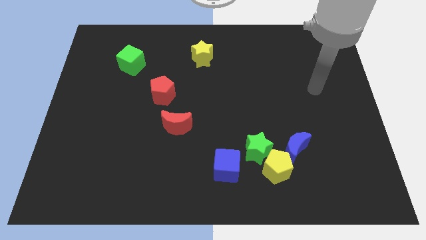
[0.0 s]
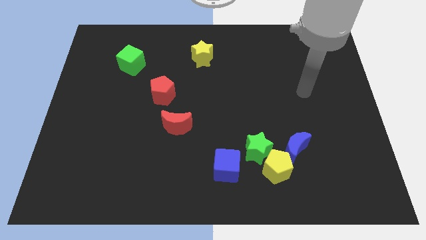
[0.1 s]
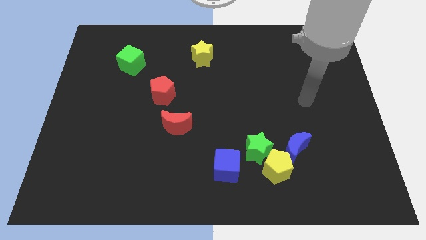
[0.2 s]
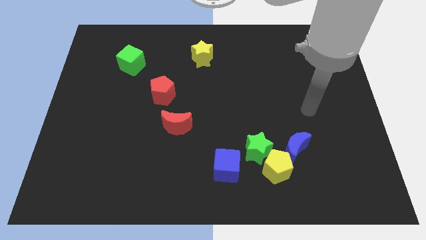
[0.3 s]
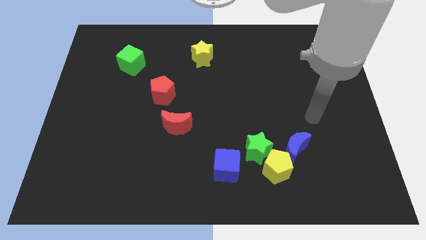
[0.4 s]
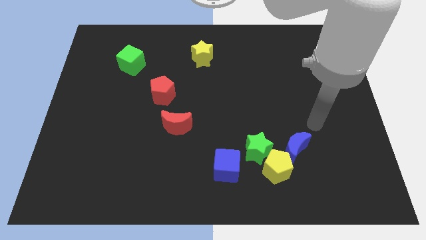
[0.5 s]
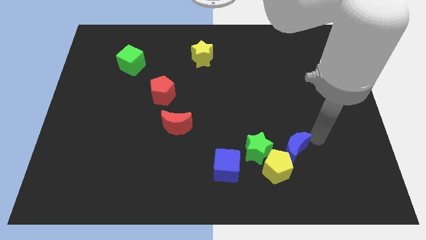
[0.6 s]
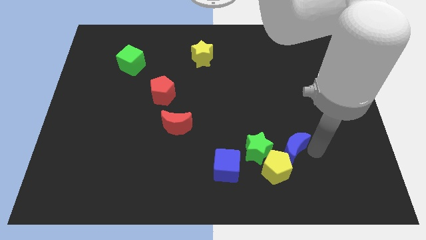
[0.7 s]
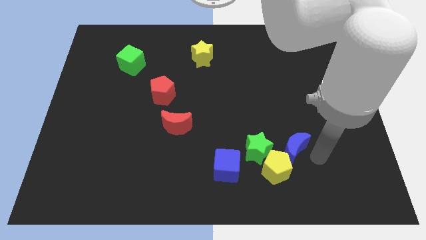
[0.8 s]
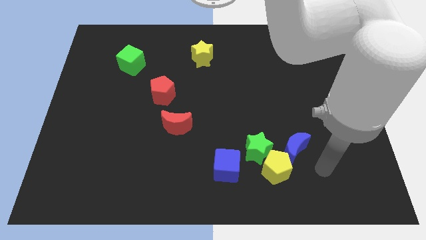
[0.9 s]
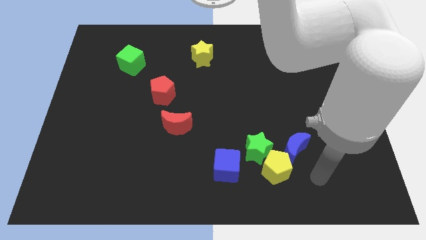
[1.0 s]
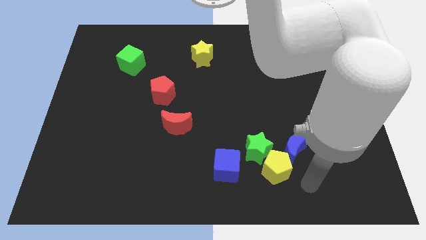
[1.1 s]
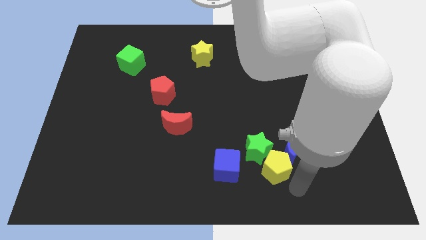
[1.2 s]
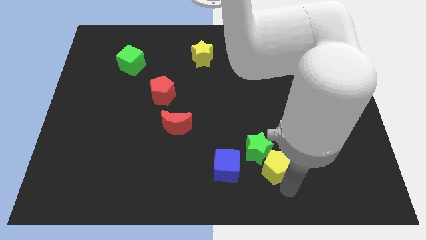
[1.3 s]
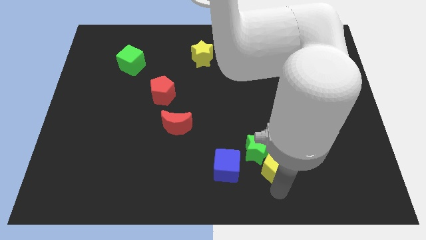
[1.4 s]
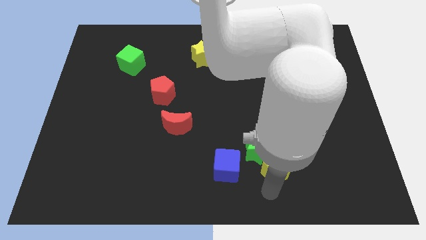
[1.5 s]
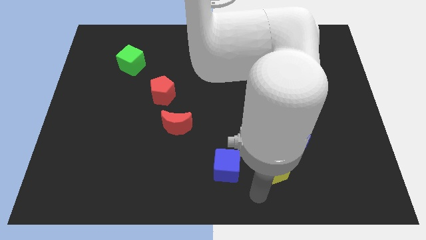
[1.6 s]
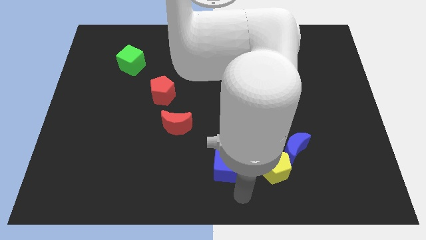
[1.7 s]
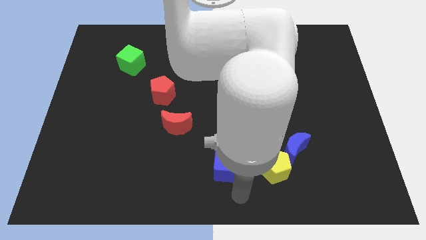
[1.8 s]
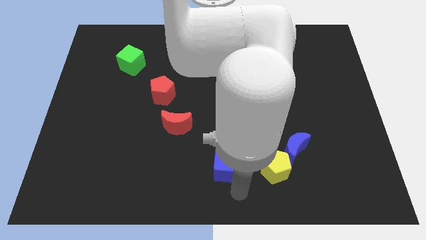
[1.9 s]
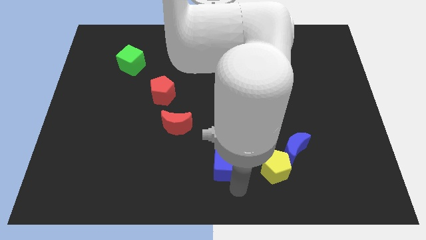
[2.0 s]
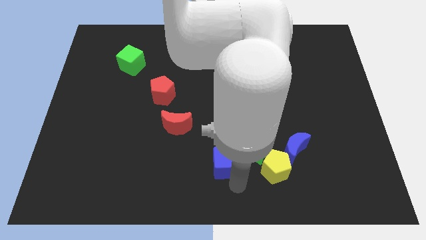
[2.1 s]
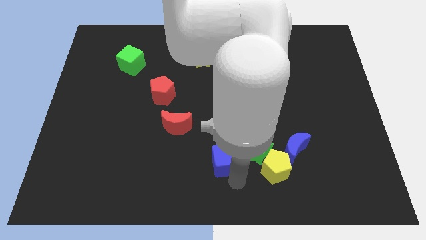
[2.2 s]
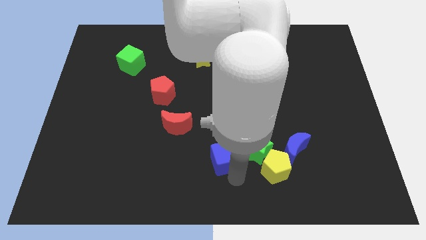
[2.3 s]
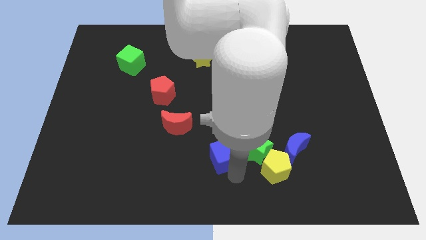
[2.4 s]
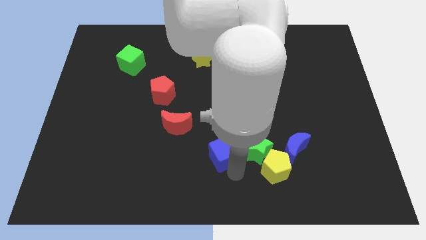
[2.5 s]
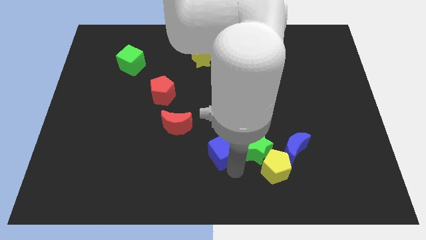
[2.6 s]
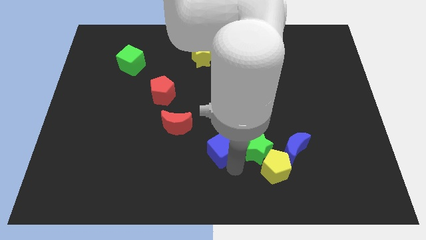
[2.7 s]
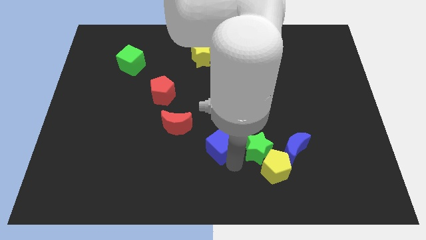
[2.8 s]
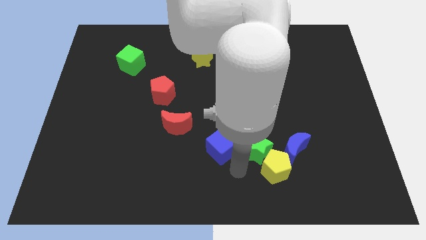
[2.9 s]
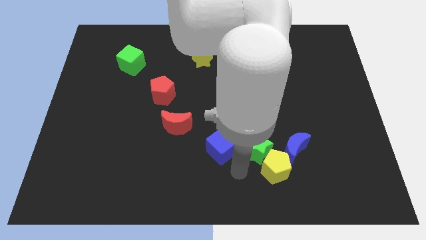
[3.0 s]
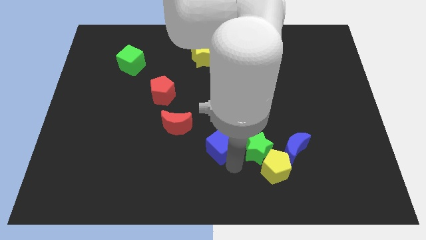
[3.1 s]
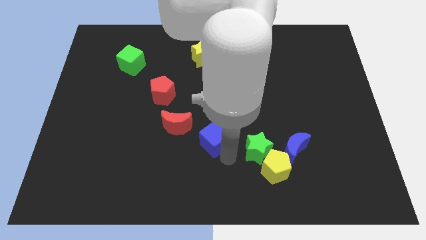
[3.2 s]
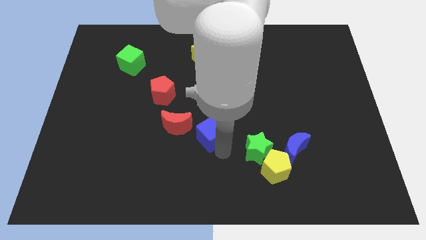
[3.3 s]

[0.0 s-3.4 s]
move the blue cube somewhat diagonally upwards and to the left

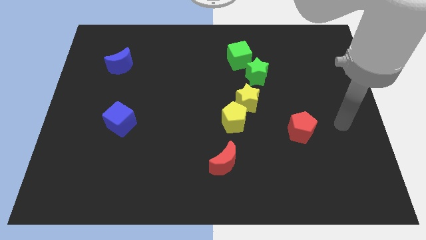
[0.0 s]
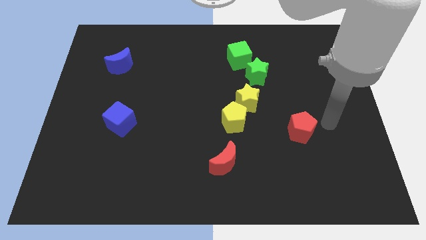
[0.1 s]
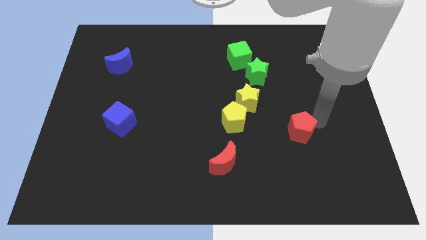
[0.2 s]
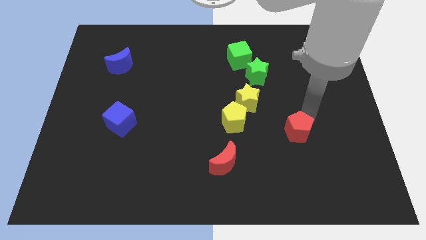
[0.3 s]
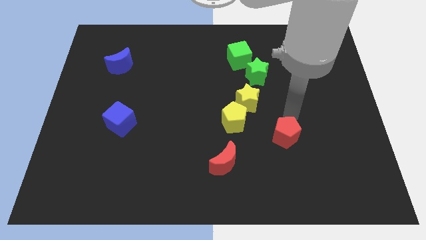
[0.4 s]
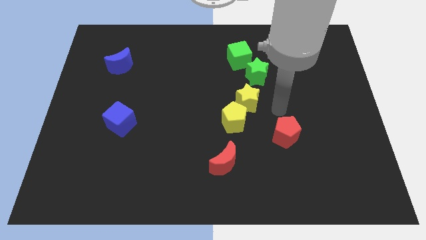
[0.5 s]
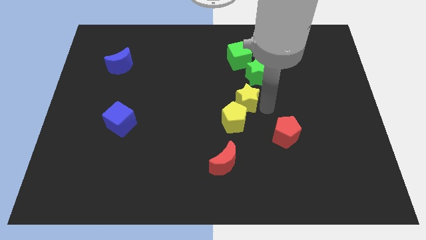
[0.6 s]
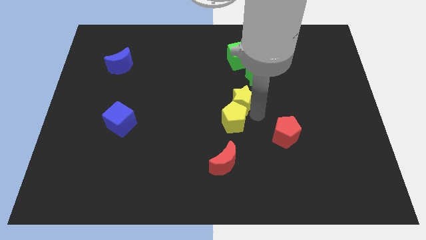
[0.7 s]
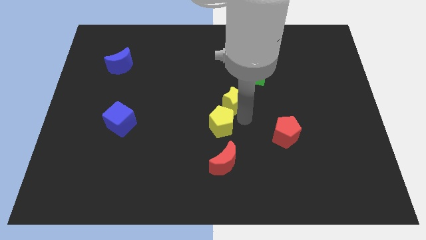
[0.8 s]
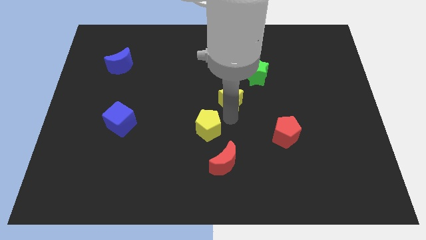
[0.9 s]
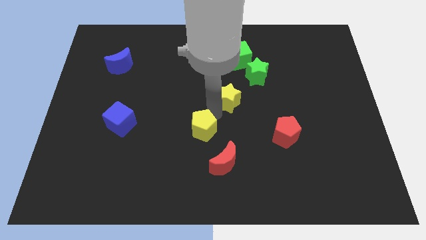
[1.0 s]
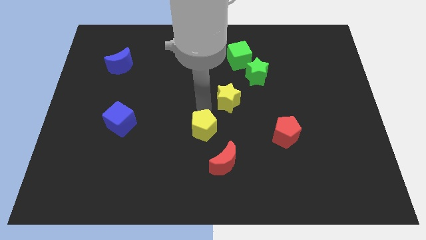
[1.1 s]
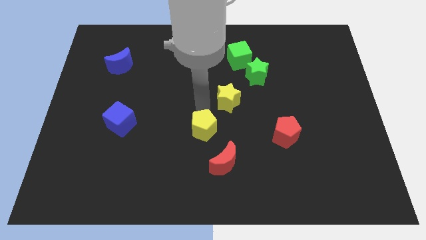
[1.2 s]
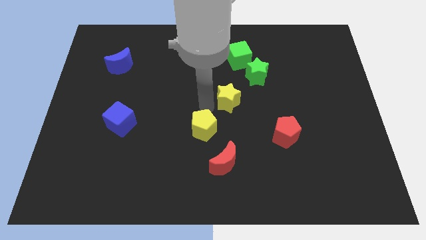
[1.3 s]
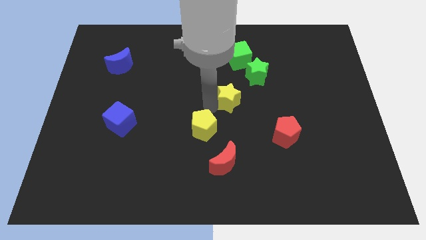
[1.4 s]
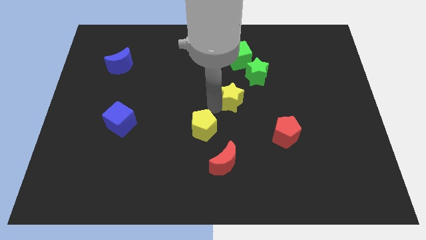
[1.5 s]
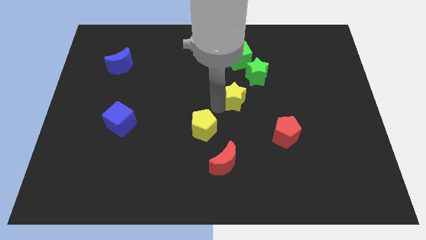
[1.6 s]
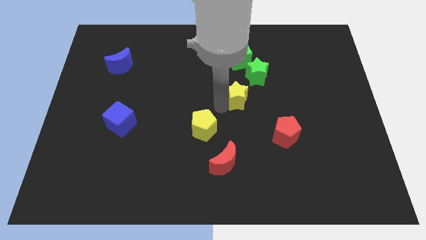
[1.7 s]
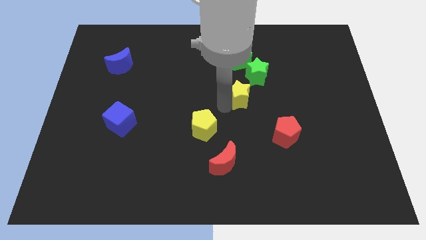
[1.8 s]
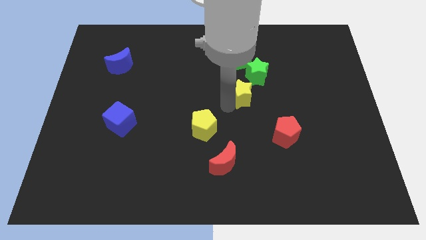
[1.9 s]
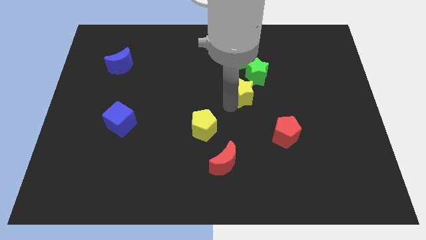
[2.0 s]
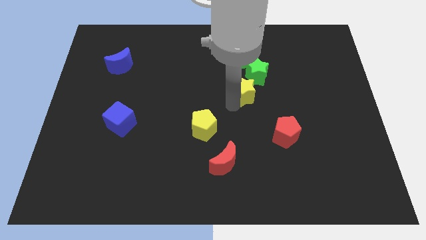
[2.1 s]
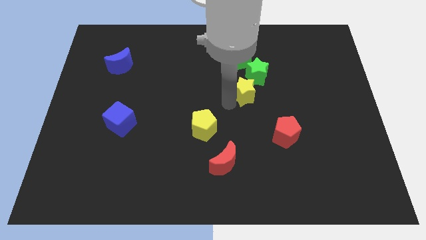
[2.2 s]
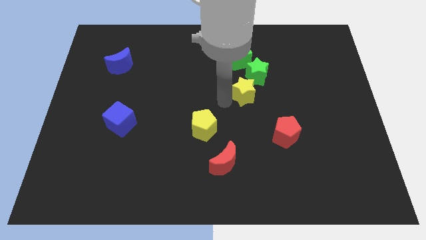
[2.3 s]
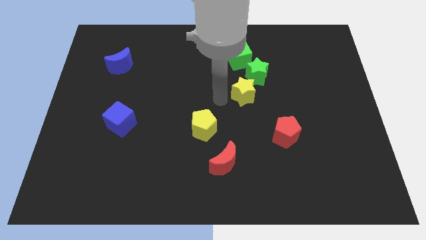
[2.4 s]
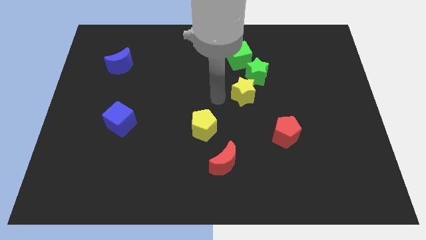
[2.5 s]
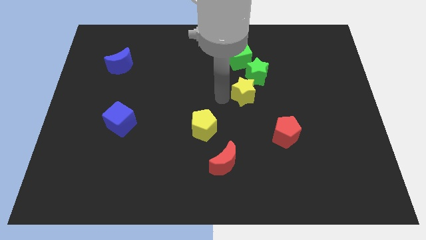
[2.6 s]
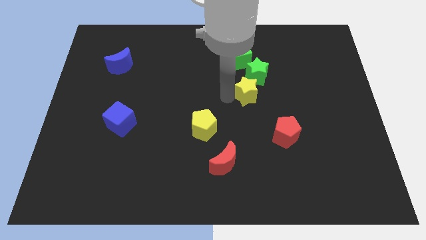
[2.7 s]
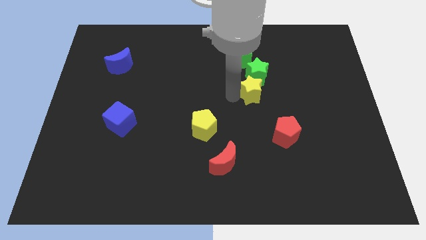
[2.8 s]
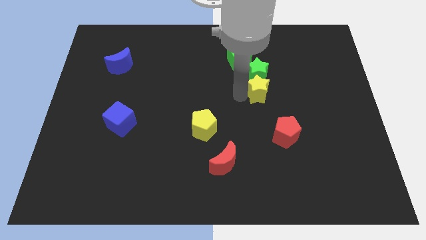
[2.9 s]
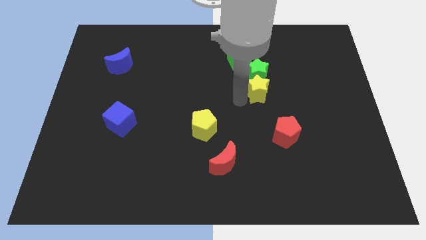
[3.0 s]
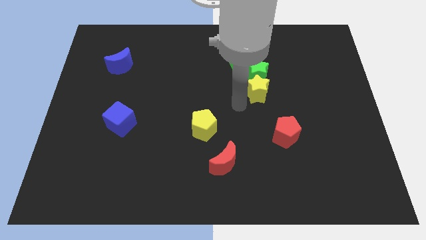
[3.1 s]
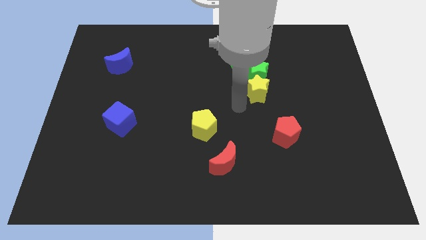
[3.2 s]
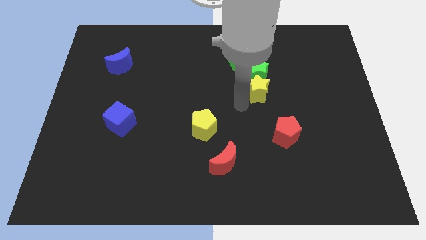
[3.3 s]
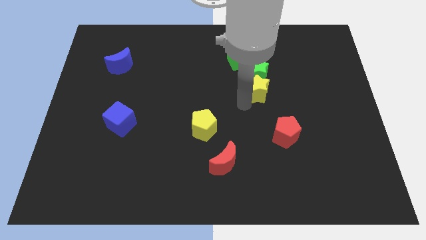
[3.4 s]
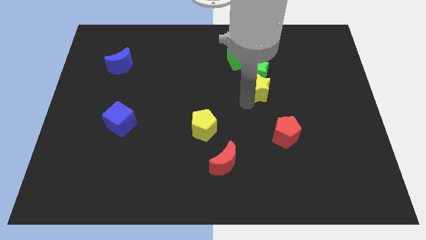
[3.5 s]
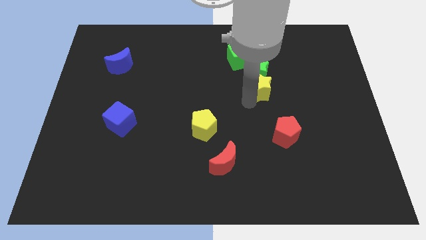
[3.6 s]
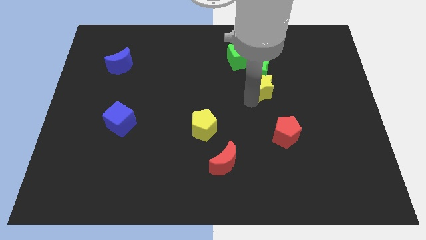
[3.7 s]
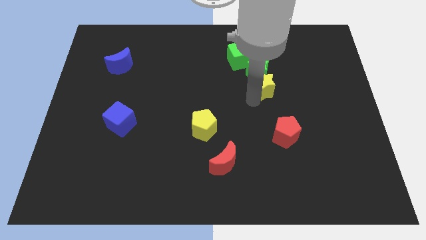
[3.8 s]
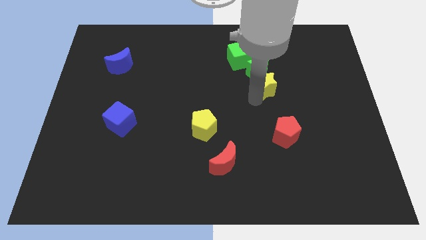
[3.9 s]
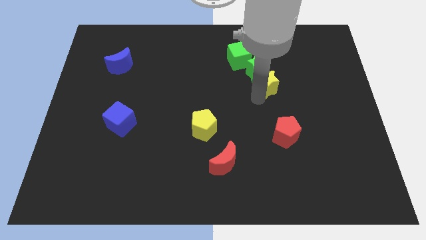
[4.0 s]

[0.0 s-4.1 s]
push the yellow star diagonally up and right a bit

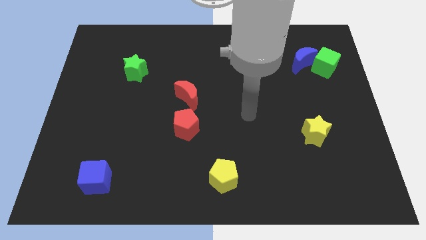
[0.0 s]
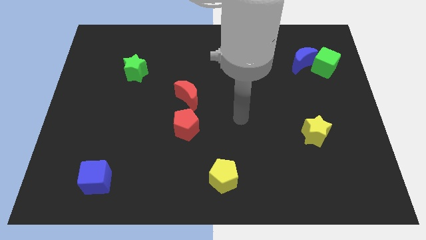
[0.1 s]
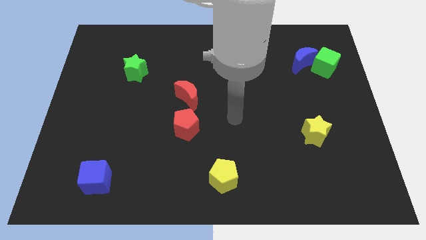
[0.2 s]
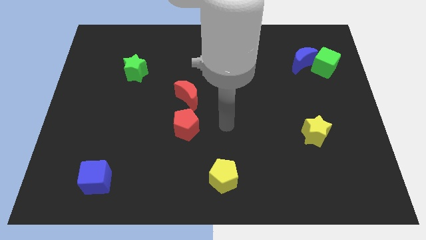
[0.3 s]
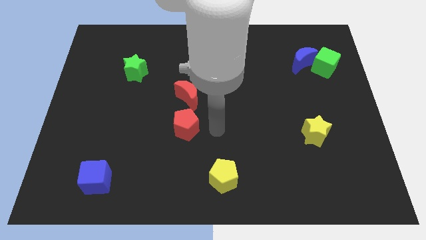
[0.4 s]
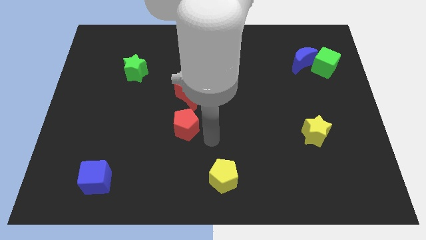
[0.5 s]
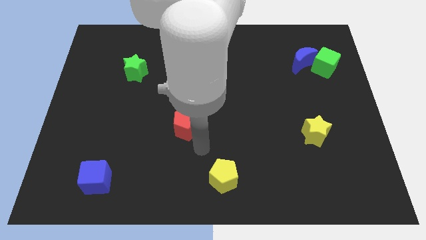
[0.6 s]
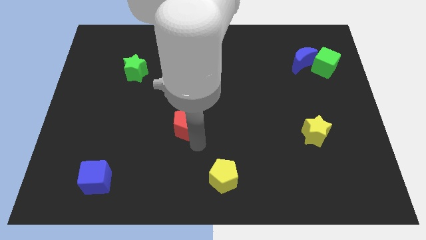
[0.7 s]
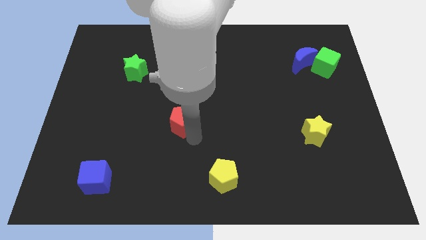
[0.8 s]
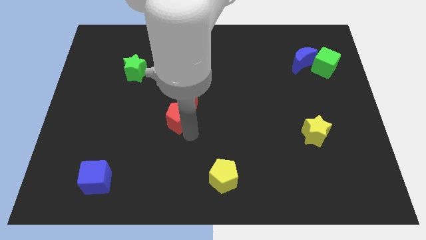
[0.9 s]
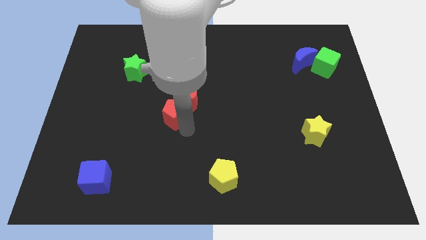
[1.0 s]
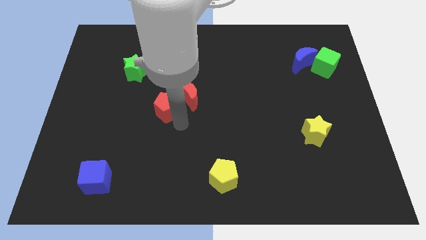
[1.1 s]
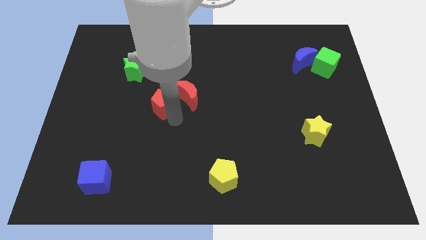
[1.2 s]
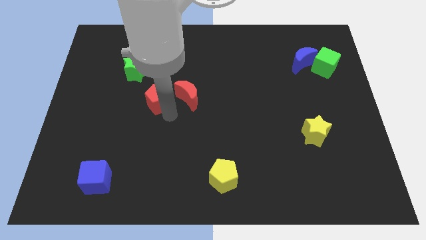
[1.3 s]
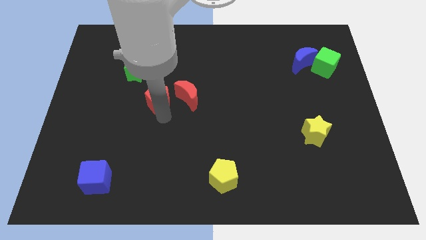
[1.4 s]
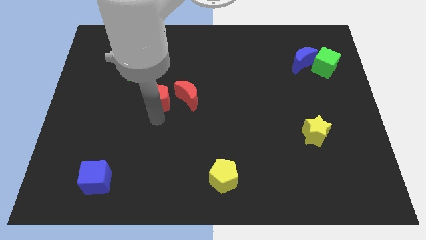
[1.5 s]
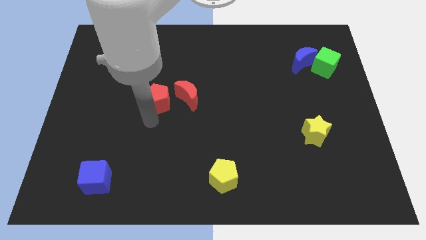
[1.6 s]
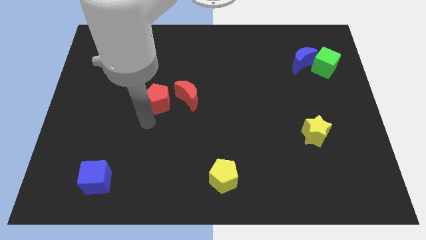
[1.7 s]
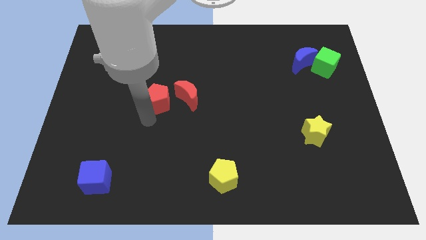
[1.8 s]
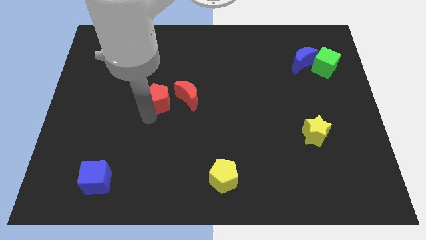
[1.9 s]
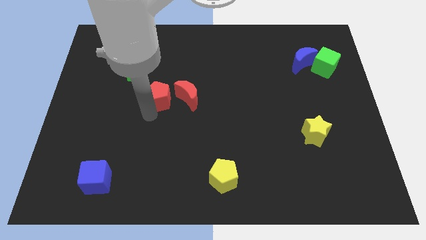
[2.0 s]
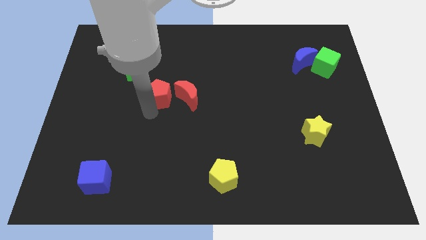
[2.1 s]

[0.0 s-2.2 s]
slightly move the red pentagon up
